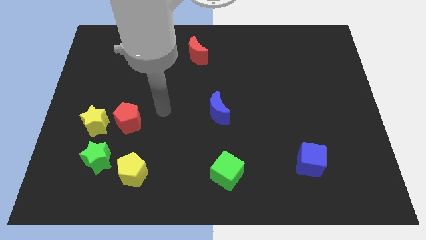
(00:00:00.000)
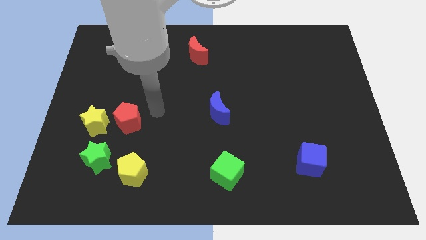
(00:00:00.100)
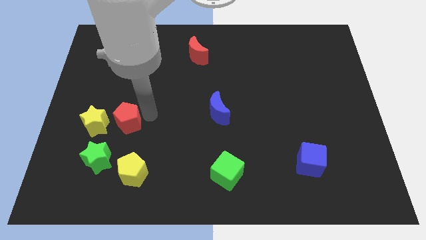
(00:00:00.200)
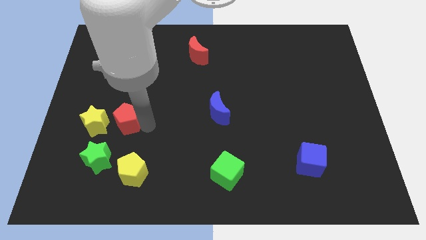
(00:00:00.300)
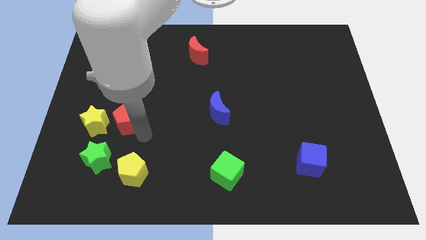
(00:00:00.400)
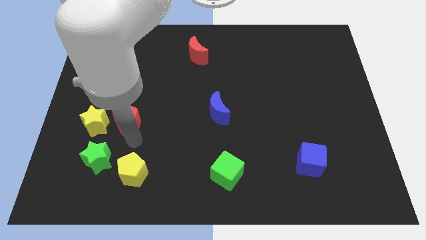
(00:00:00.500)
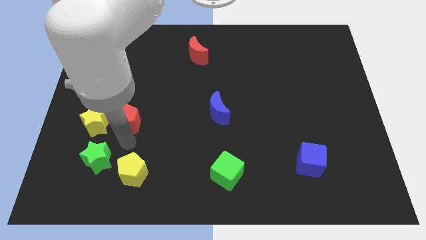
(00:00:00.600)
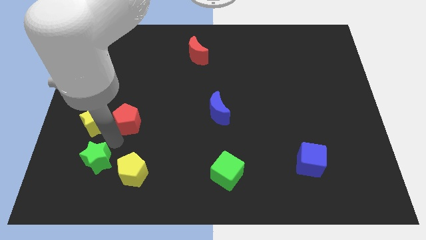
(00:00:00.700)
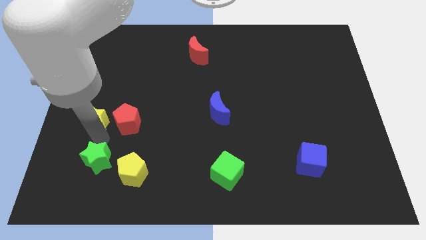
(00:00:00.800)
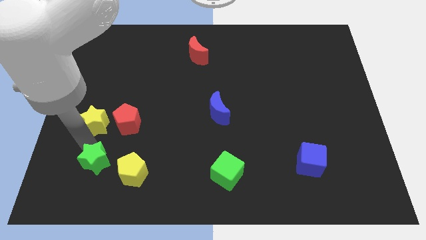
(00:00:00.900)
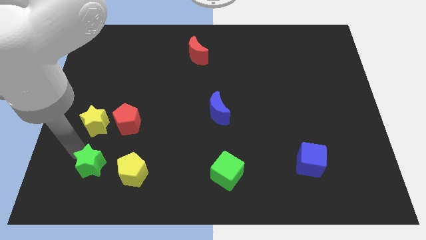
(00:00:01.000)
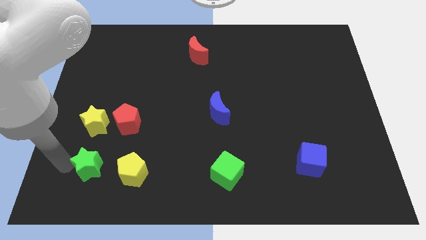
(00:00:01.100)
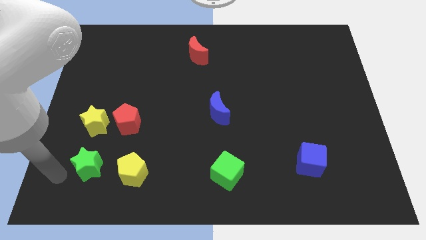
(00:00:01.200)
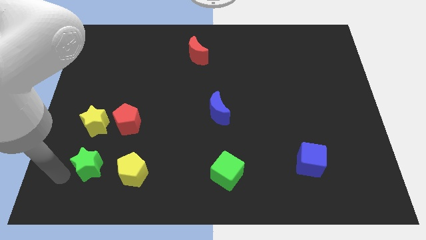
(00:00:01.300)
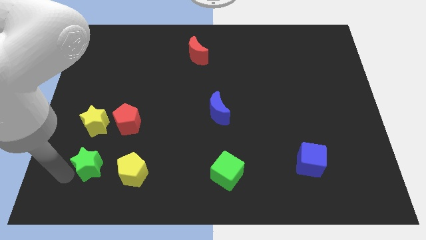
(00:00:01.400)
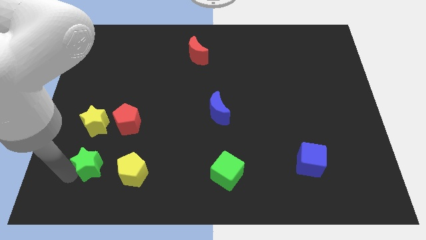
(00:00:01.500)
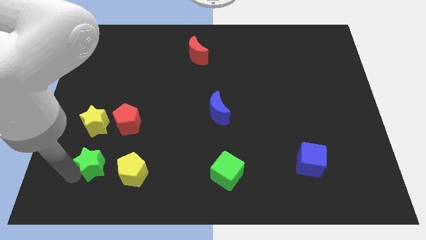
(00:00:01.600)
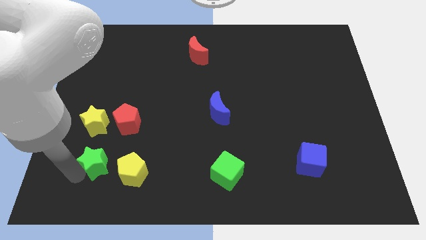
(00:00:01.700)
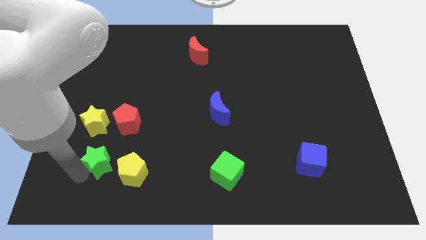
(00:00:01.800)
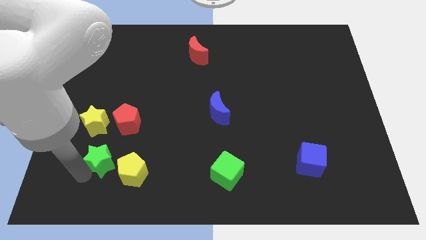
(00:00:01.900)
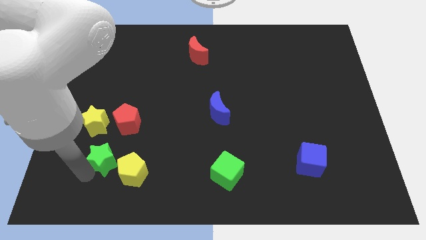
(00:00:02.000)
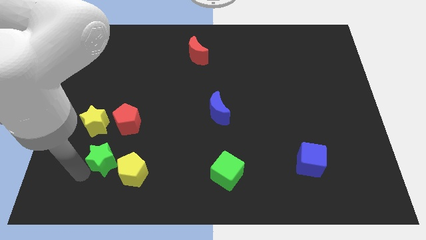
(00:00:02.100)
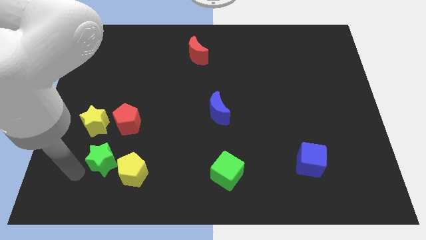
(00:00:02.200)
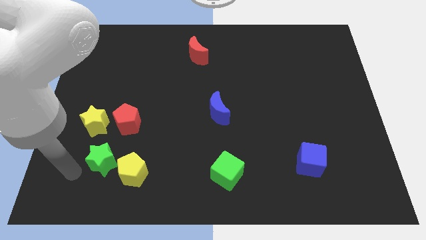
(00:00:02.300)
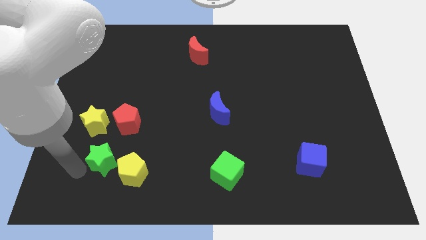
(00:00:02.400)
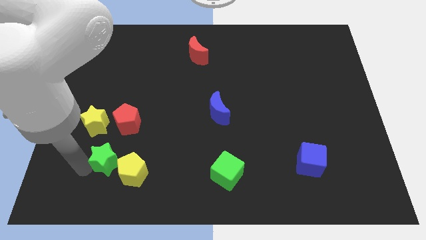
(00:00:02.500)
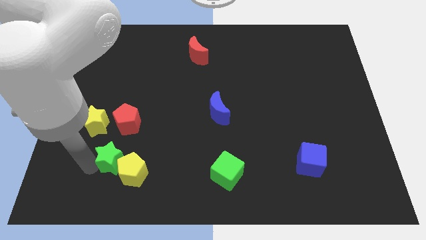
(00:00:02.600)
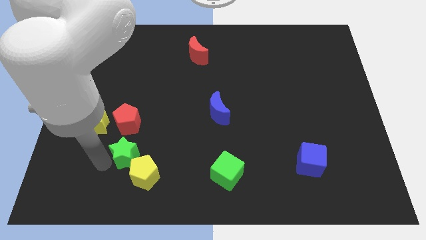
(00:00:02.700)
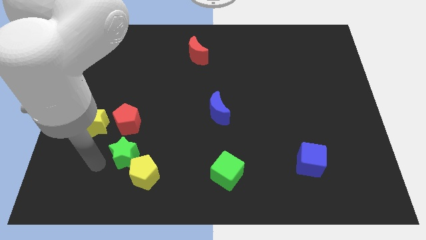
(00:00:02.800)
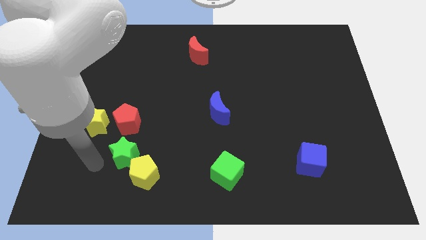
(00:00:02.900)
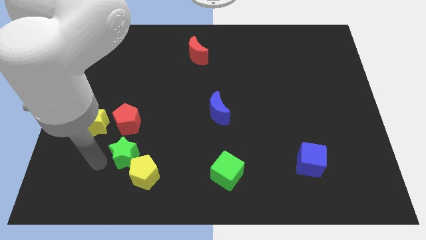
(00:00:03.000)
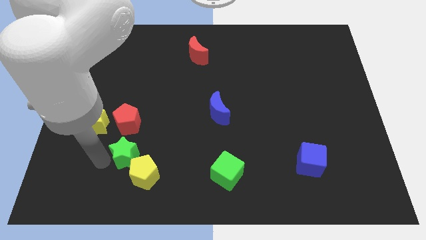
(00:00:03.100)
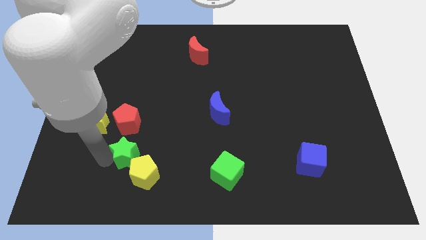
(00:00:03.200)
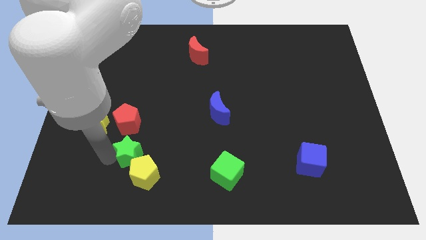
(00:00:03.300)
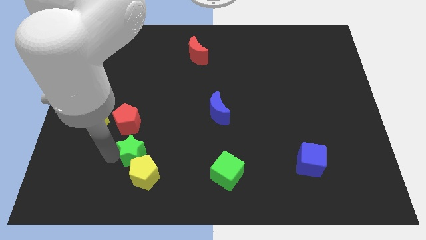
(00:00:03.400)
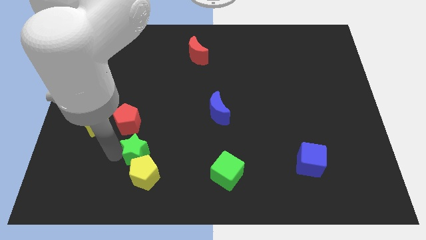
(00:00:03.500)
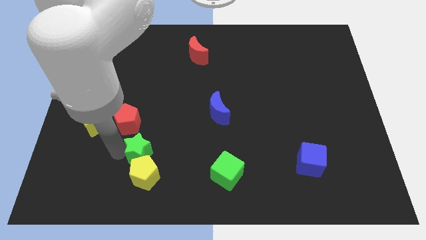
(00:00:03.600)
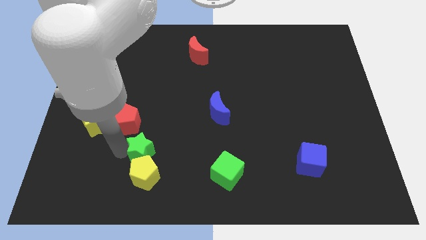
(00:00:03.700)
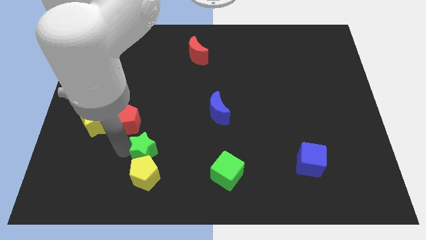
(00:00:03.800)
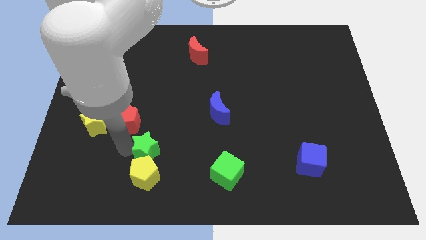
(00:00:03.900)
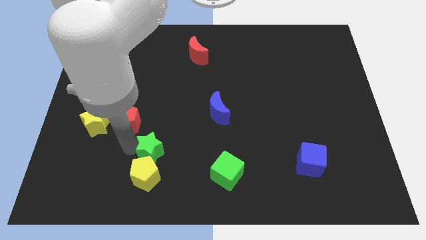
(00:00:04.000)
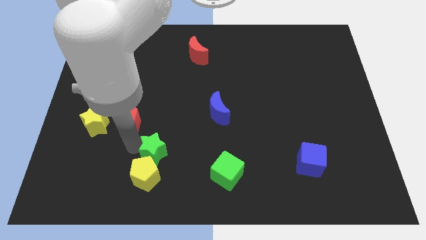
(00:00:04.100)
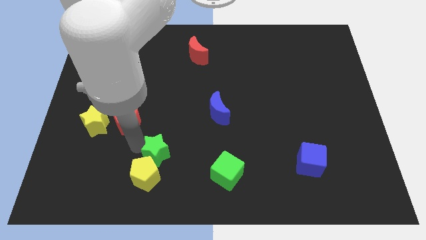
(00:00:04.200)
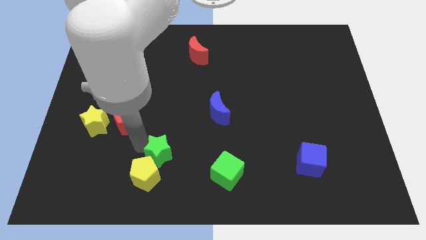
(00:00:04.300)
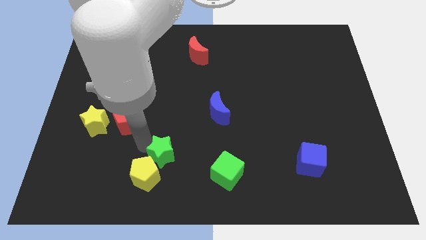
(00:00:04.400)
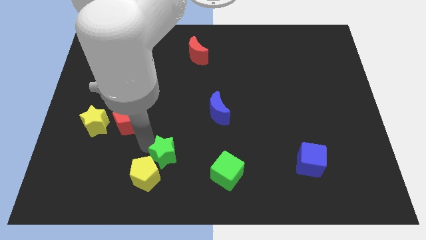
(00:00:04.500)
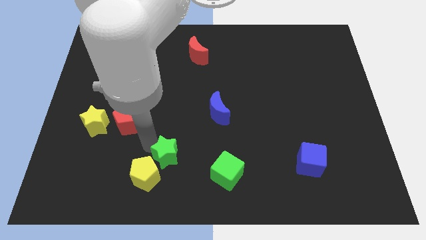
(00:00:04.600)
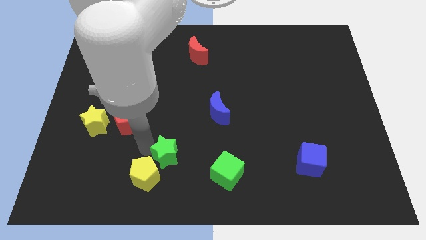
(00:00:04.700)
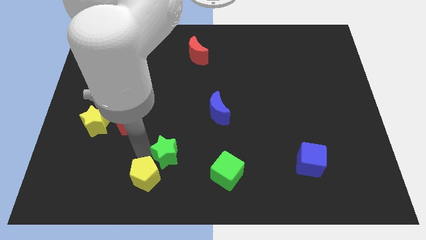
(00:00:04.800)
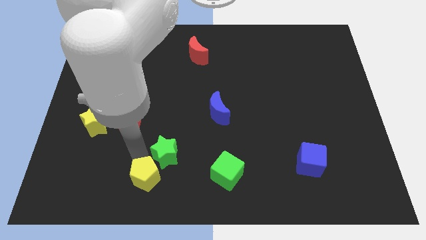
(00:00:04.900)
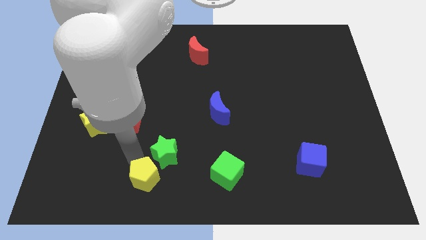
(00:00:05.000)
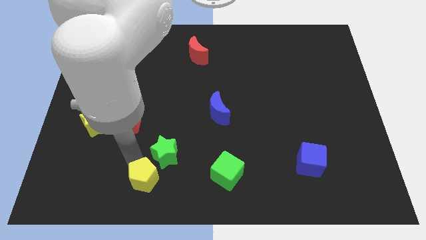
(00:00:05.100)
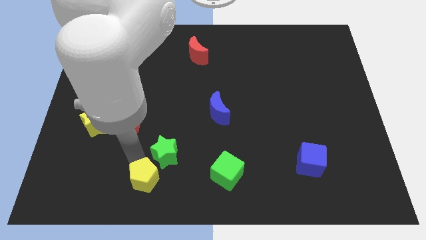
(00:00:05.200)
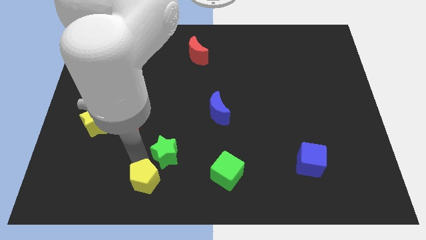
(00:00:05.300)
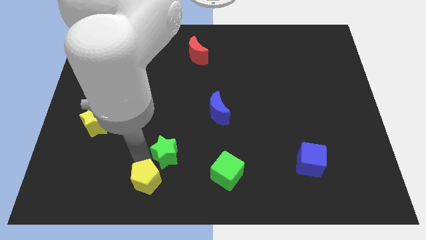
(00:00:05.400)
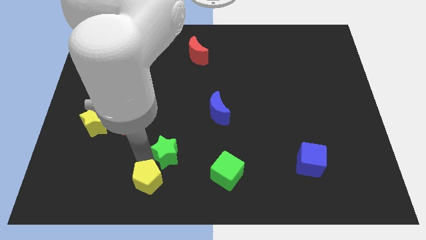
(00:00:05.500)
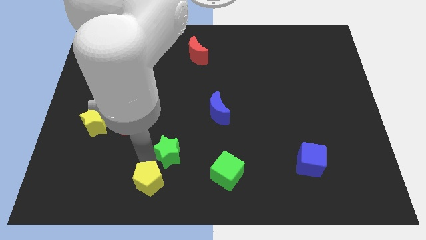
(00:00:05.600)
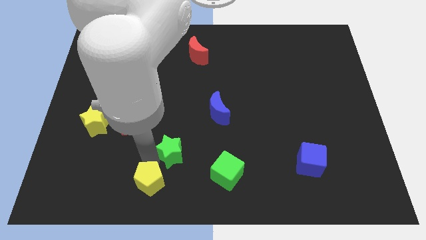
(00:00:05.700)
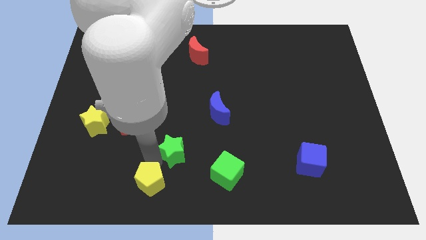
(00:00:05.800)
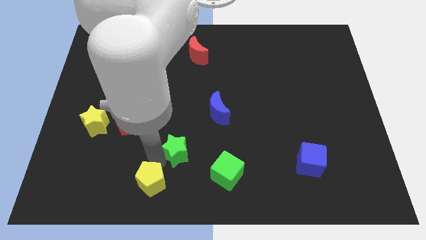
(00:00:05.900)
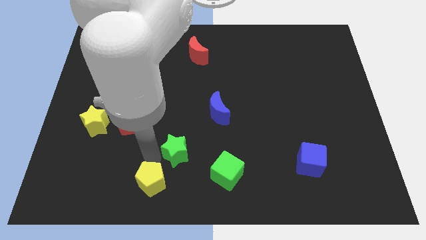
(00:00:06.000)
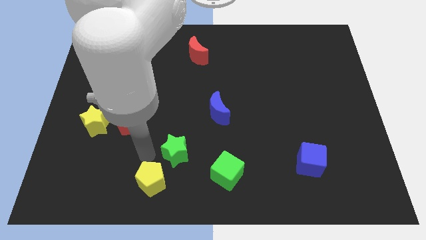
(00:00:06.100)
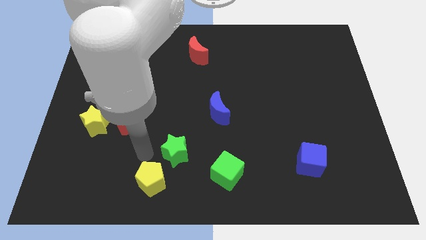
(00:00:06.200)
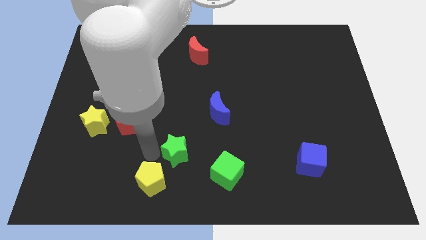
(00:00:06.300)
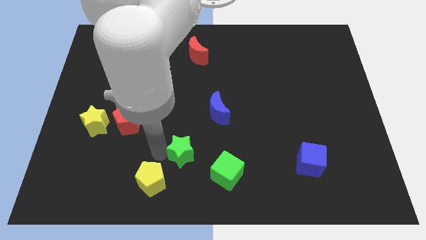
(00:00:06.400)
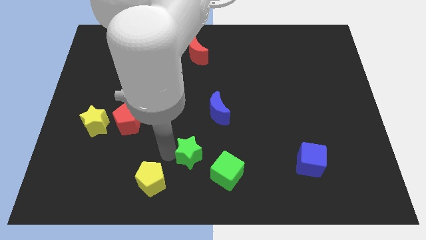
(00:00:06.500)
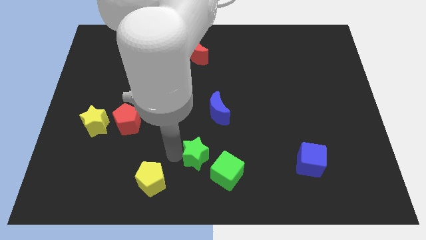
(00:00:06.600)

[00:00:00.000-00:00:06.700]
push the green star right

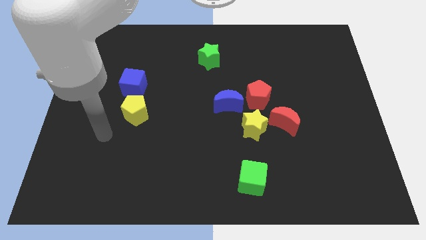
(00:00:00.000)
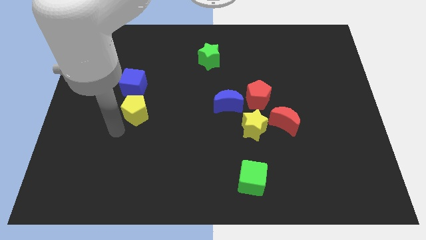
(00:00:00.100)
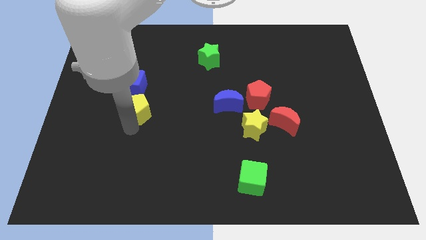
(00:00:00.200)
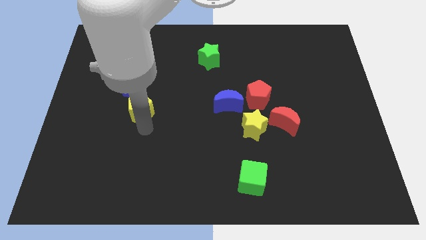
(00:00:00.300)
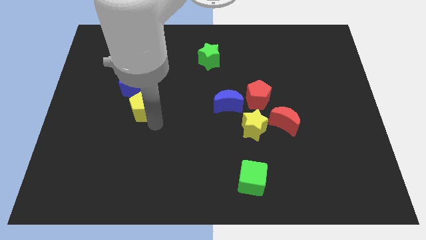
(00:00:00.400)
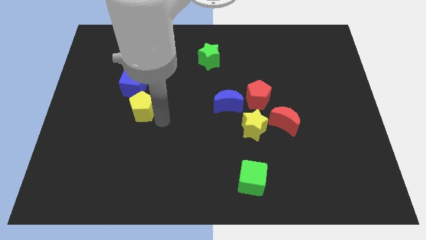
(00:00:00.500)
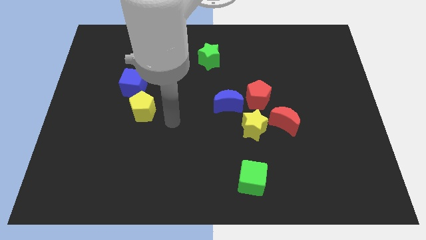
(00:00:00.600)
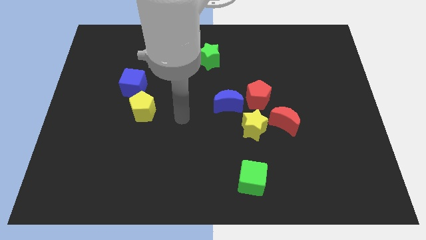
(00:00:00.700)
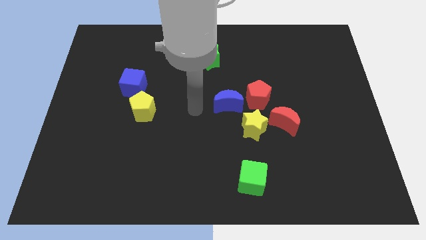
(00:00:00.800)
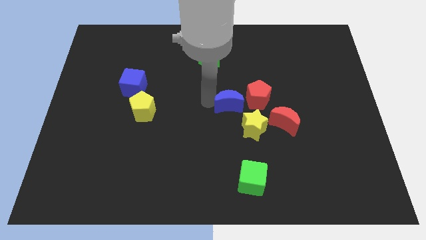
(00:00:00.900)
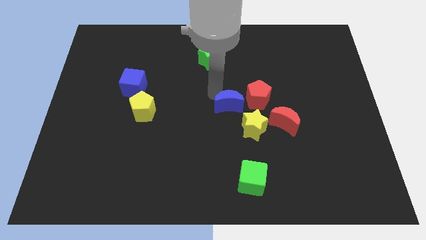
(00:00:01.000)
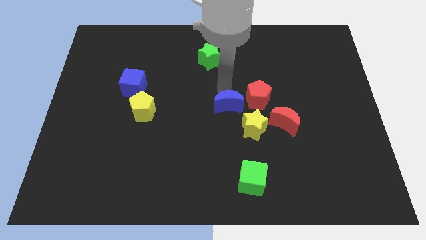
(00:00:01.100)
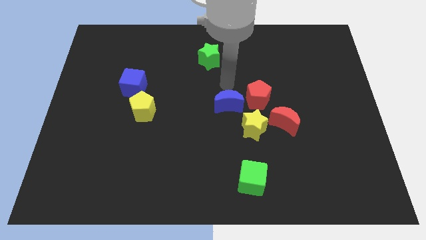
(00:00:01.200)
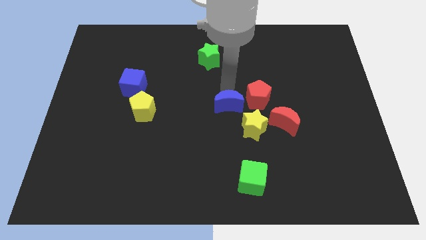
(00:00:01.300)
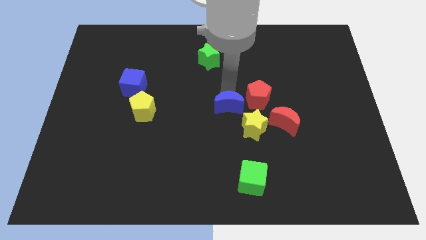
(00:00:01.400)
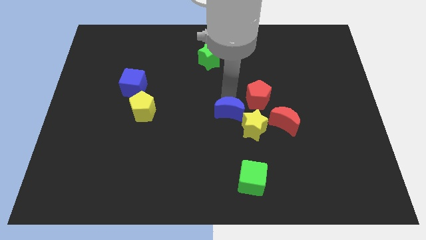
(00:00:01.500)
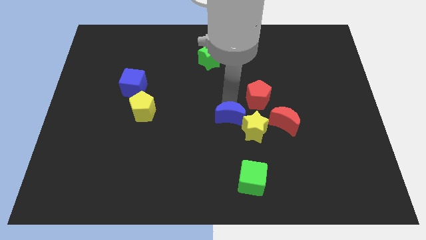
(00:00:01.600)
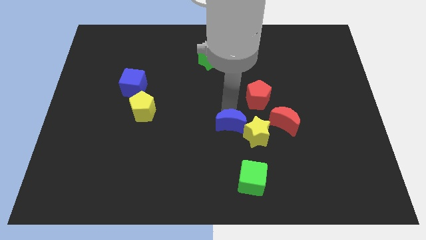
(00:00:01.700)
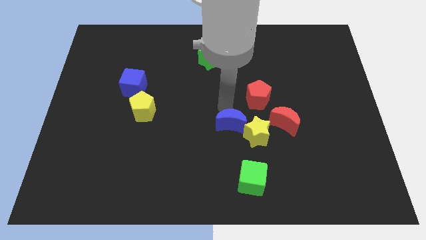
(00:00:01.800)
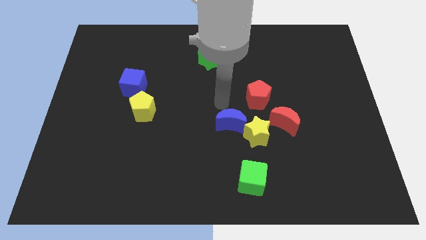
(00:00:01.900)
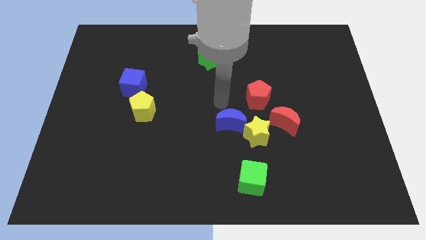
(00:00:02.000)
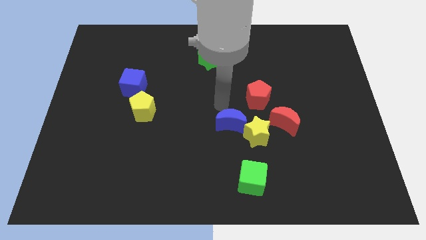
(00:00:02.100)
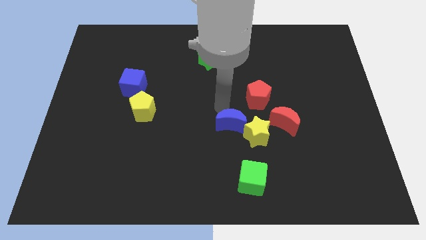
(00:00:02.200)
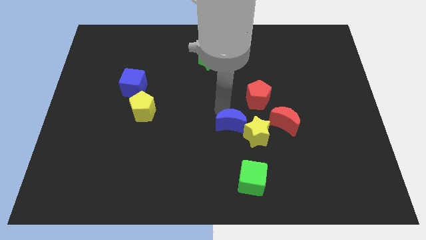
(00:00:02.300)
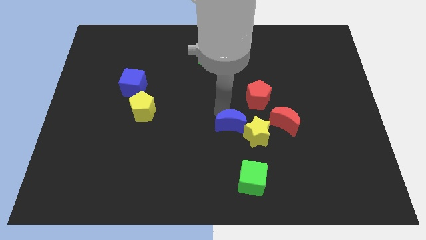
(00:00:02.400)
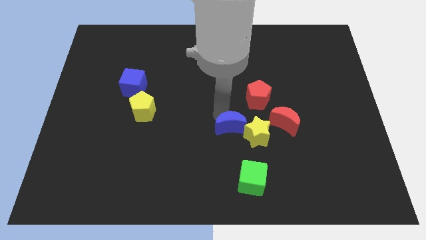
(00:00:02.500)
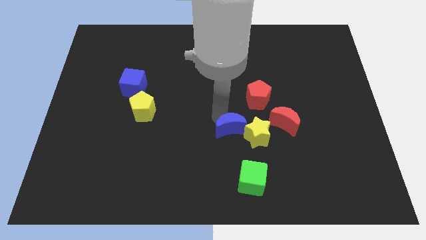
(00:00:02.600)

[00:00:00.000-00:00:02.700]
push the blue moon down a bit
